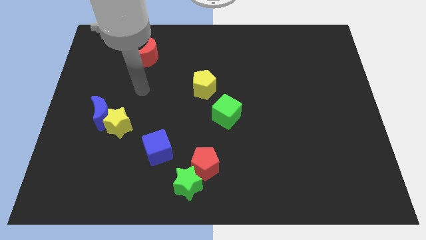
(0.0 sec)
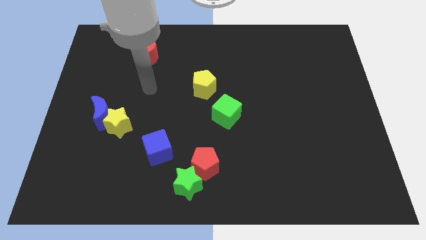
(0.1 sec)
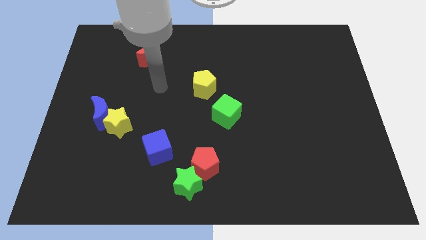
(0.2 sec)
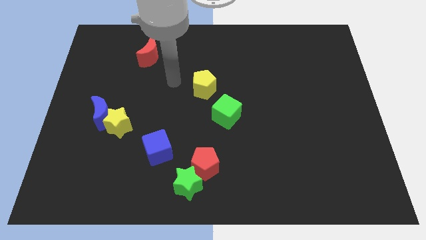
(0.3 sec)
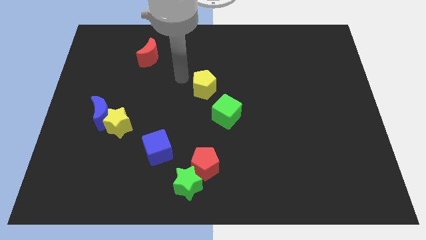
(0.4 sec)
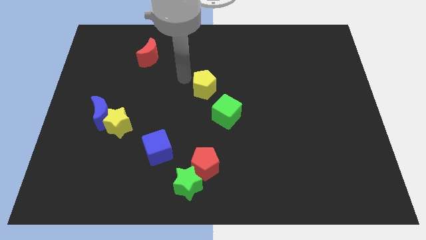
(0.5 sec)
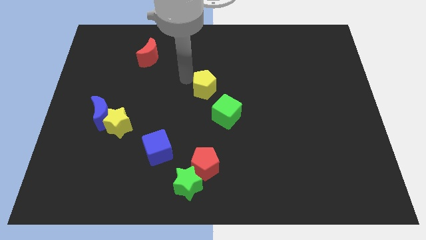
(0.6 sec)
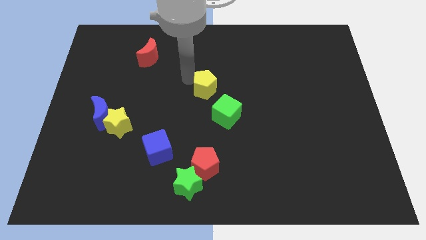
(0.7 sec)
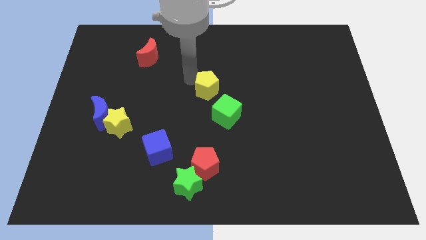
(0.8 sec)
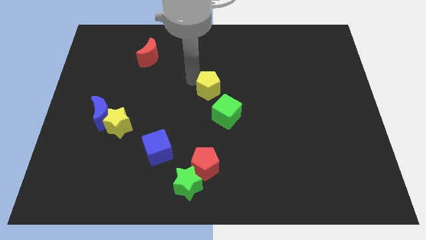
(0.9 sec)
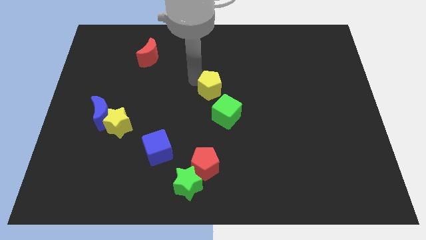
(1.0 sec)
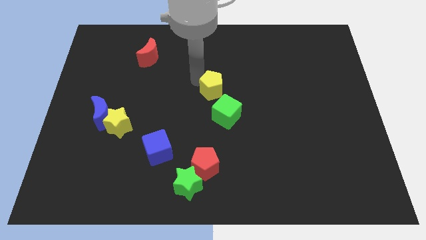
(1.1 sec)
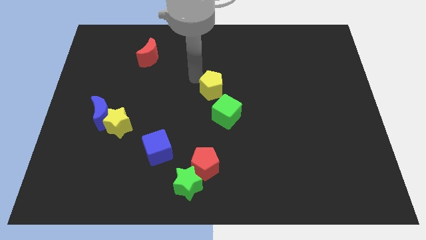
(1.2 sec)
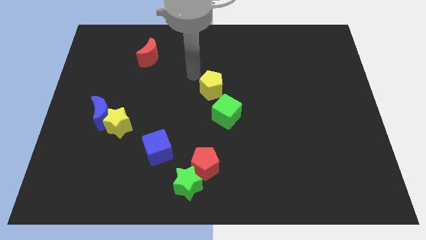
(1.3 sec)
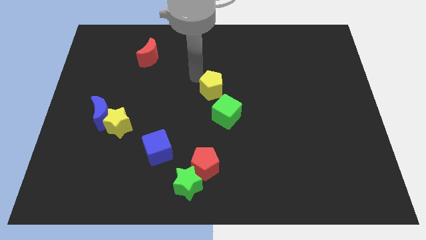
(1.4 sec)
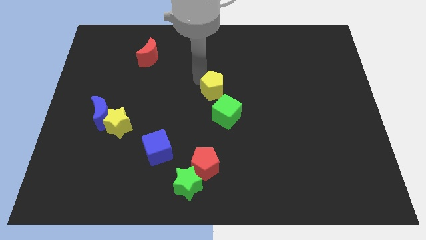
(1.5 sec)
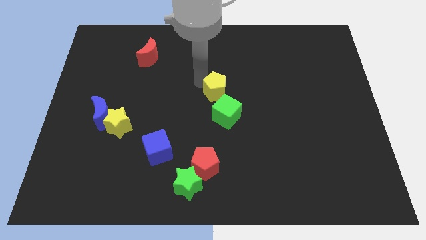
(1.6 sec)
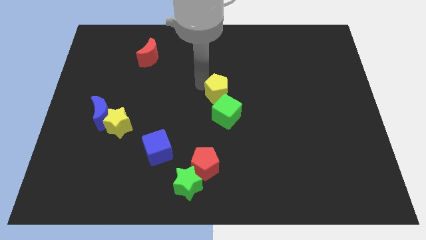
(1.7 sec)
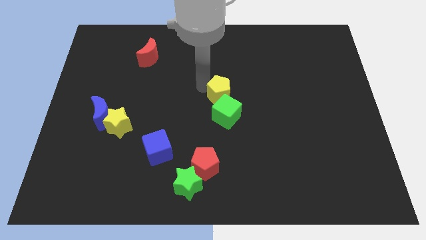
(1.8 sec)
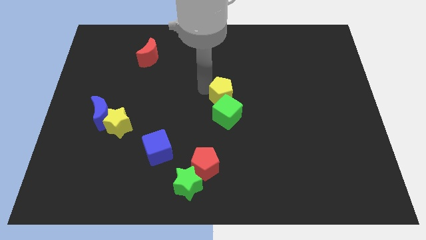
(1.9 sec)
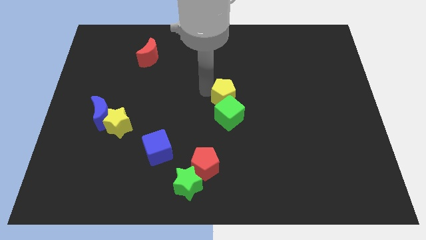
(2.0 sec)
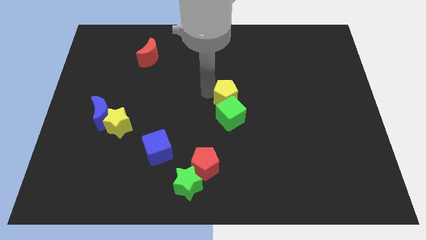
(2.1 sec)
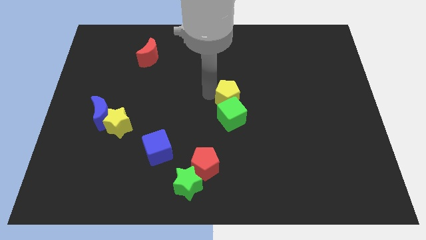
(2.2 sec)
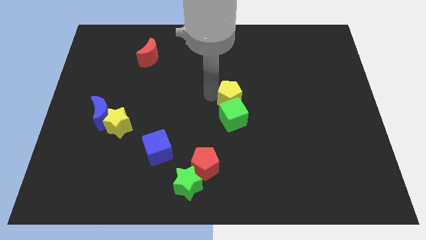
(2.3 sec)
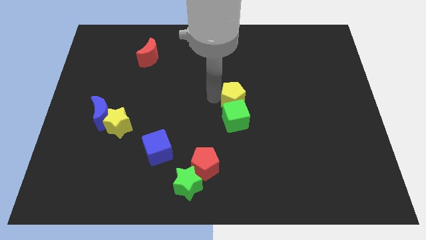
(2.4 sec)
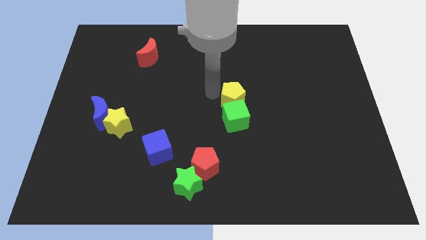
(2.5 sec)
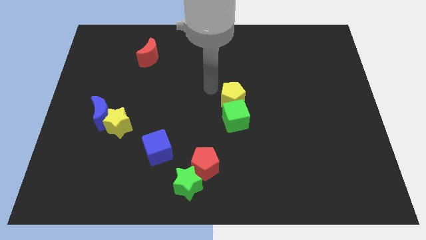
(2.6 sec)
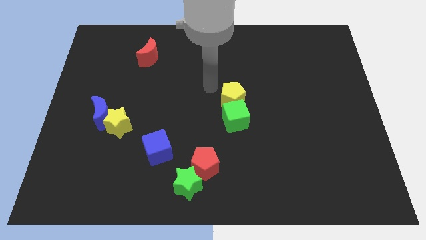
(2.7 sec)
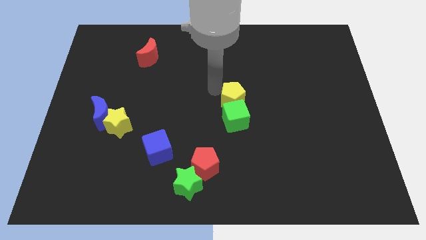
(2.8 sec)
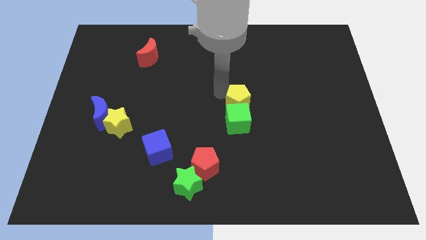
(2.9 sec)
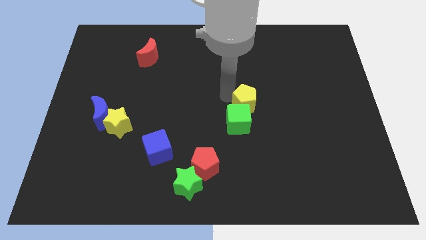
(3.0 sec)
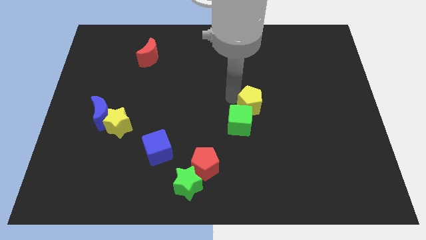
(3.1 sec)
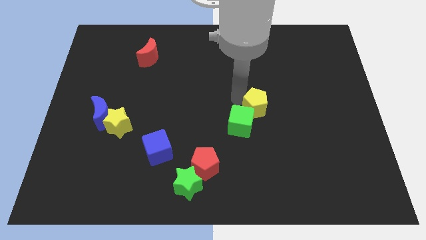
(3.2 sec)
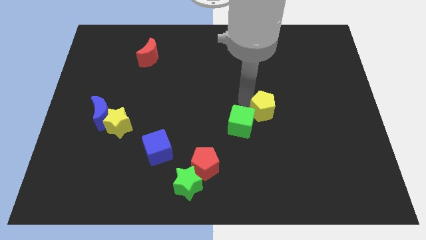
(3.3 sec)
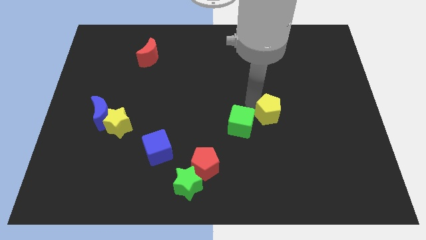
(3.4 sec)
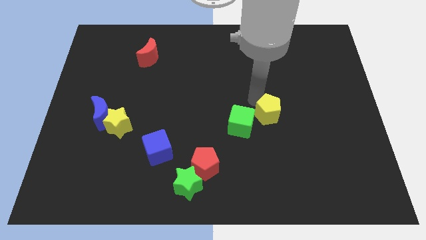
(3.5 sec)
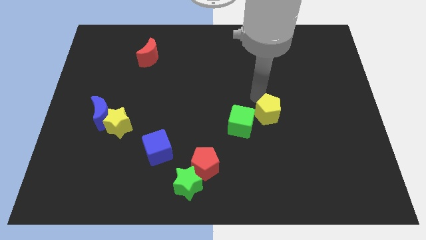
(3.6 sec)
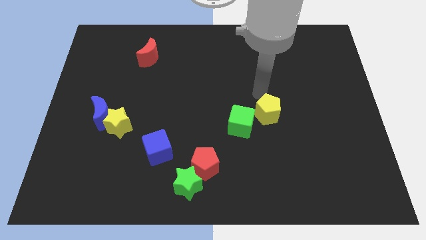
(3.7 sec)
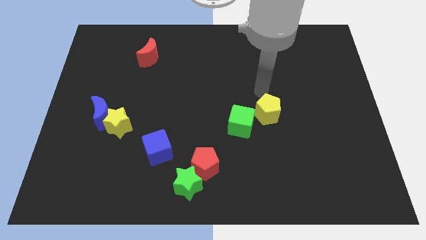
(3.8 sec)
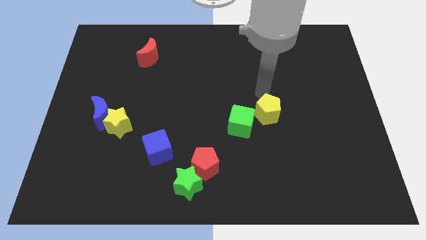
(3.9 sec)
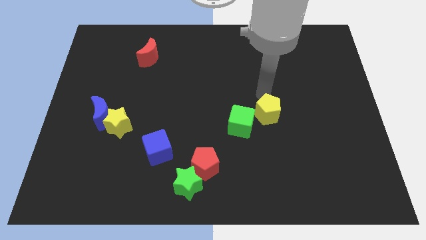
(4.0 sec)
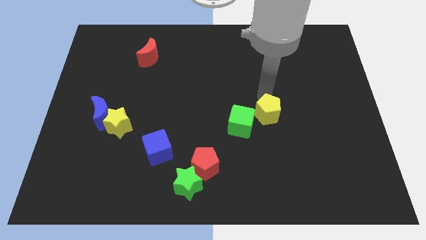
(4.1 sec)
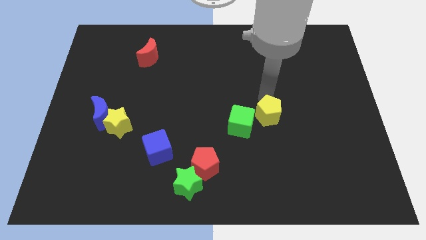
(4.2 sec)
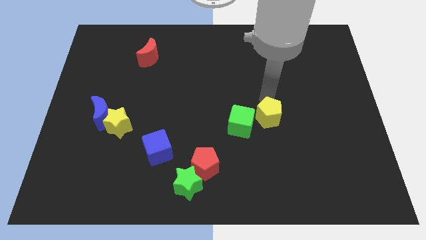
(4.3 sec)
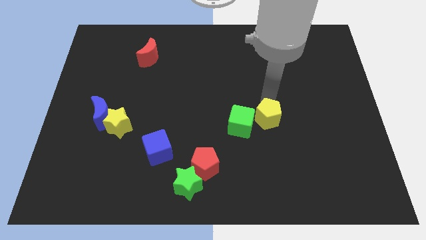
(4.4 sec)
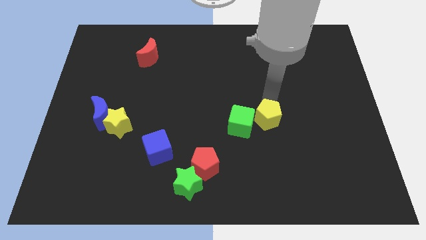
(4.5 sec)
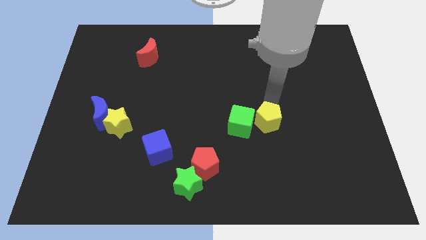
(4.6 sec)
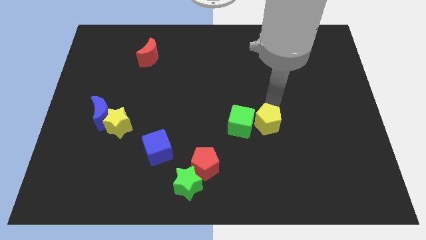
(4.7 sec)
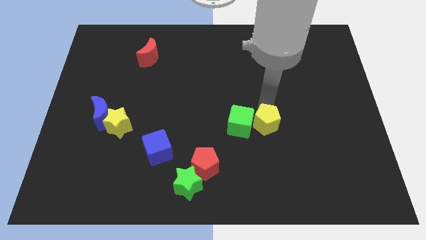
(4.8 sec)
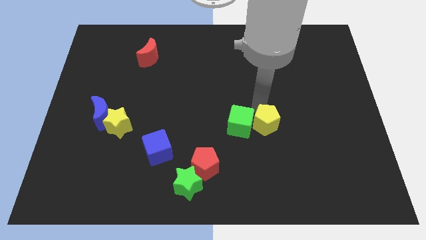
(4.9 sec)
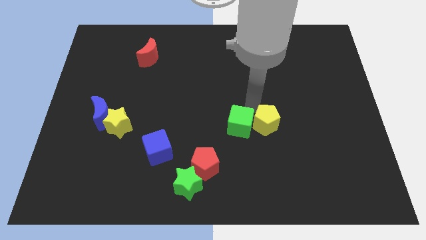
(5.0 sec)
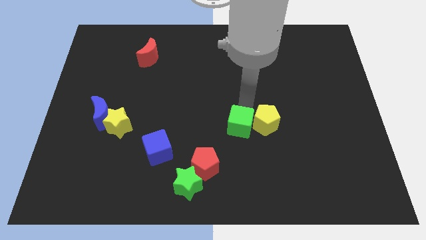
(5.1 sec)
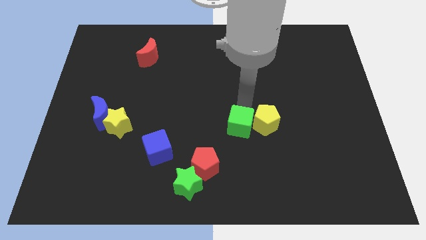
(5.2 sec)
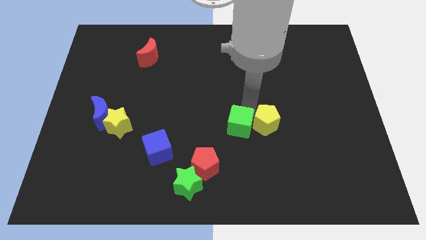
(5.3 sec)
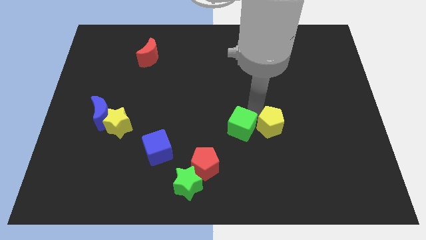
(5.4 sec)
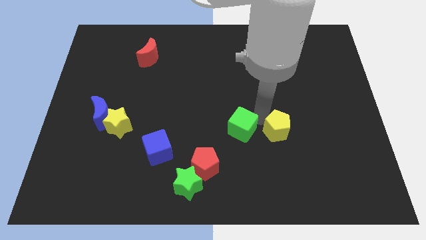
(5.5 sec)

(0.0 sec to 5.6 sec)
slide the yellow pentagon down and right diagonally

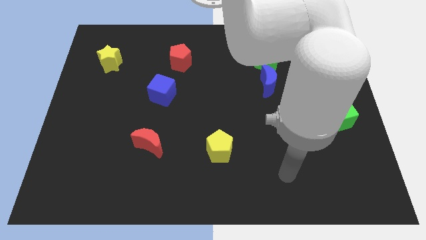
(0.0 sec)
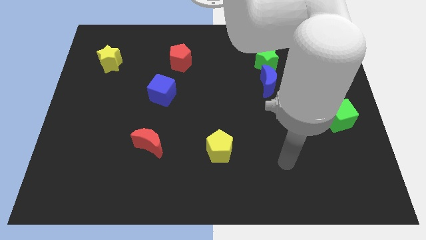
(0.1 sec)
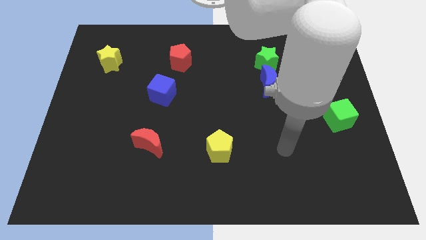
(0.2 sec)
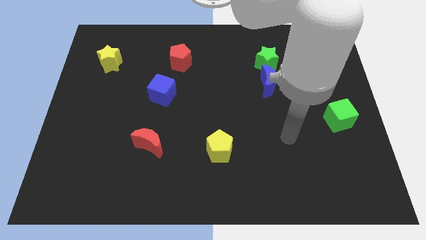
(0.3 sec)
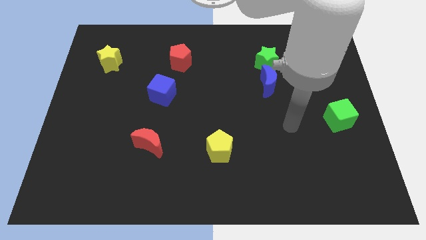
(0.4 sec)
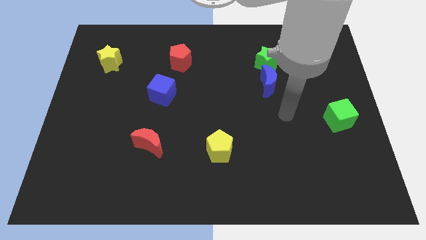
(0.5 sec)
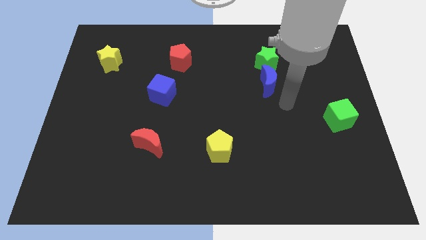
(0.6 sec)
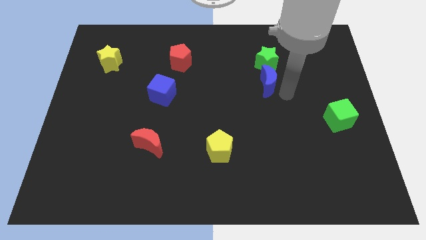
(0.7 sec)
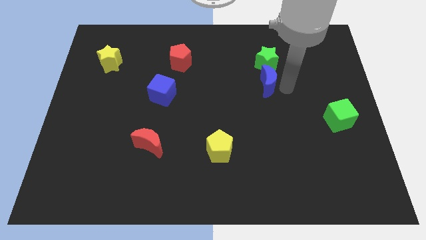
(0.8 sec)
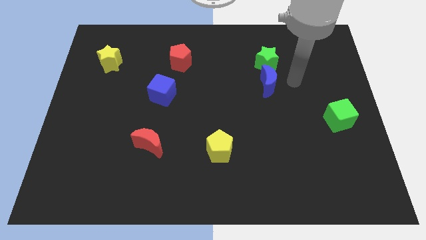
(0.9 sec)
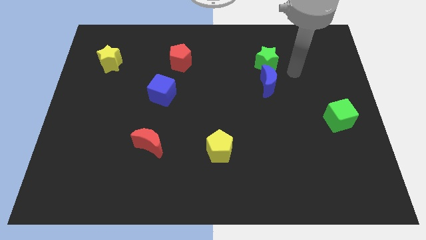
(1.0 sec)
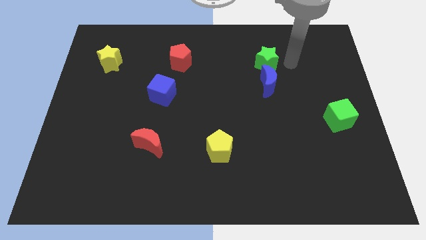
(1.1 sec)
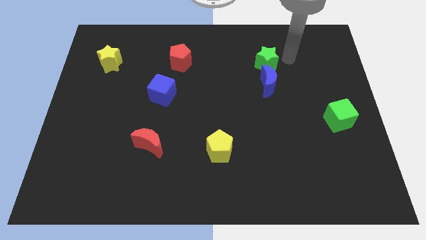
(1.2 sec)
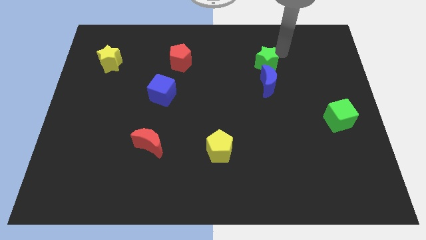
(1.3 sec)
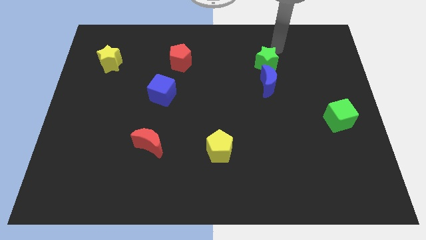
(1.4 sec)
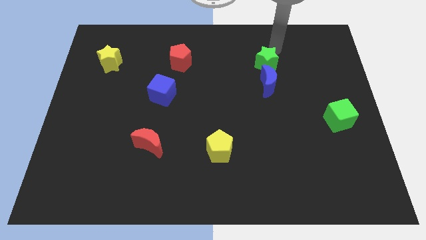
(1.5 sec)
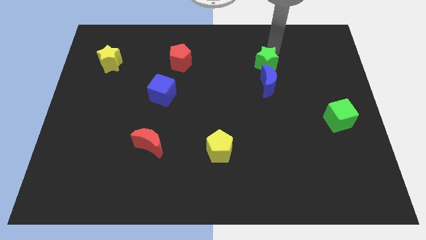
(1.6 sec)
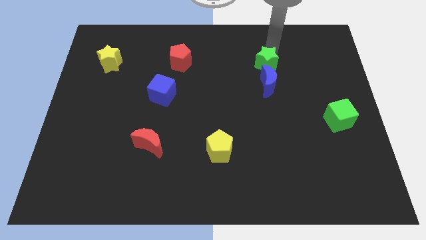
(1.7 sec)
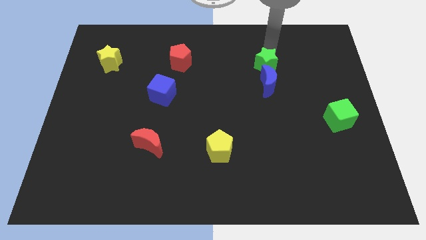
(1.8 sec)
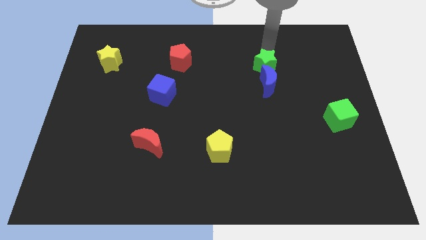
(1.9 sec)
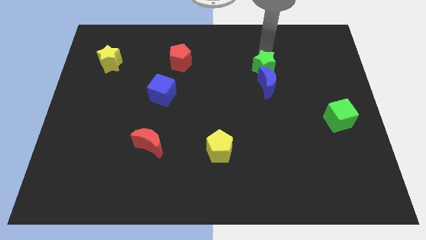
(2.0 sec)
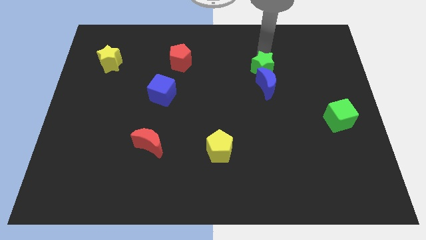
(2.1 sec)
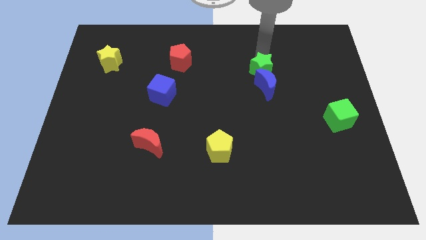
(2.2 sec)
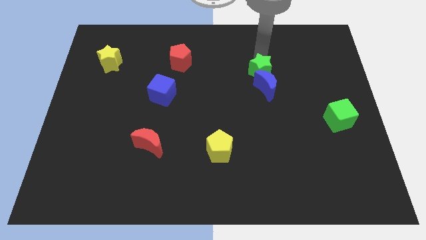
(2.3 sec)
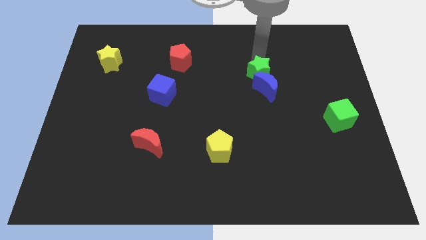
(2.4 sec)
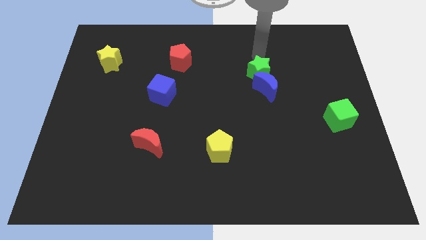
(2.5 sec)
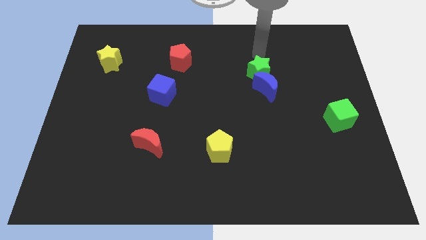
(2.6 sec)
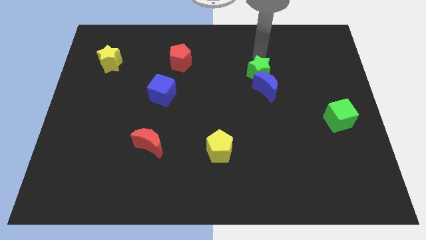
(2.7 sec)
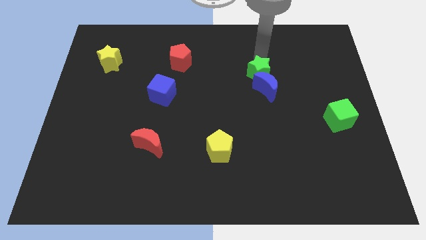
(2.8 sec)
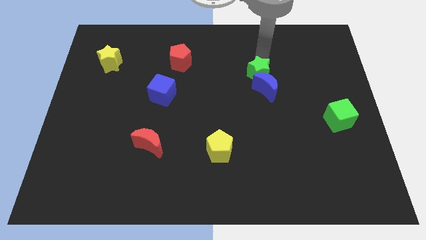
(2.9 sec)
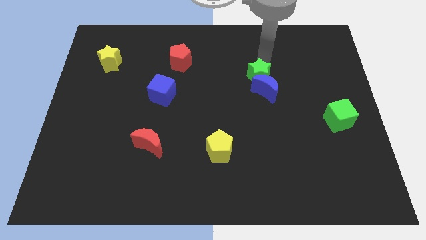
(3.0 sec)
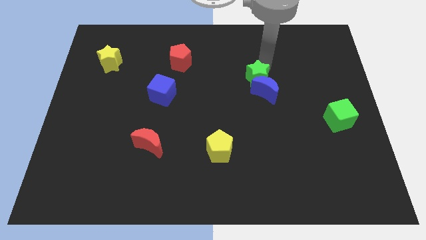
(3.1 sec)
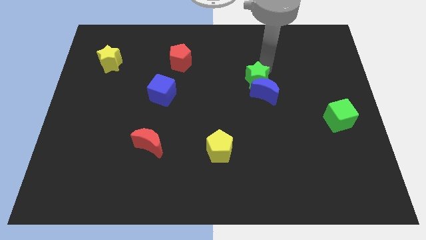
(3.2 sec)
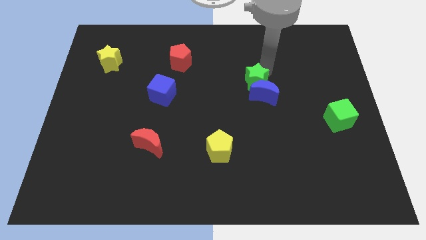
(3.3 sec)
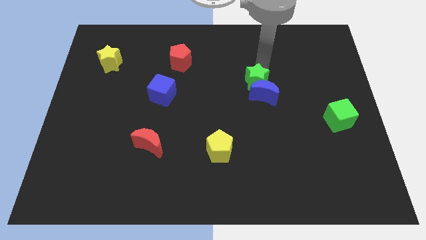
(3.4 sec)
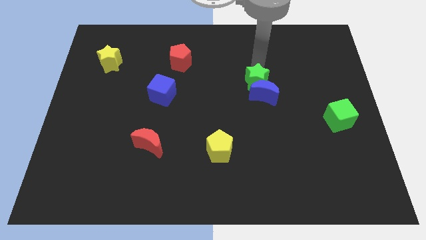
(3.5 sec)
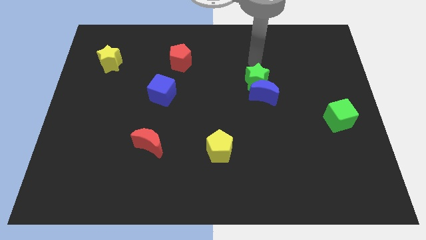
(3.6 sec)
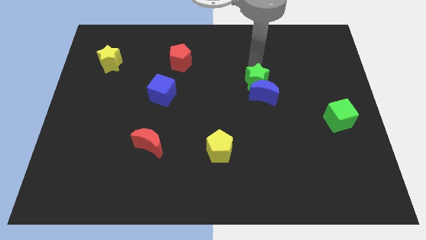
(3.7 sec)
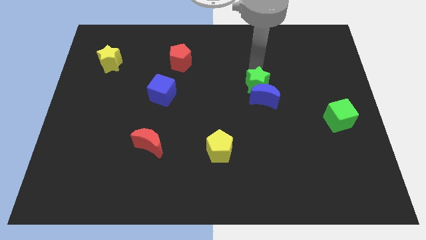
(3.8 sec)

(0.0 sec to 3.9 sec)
move the green star down somewhat
